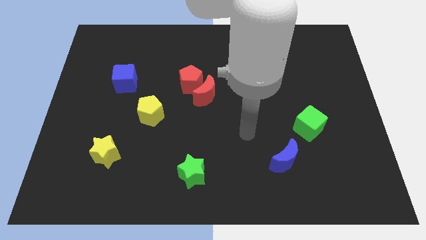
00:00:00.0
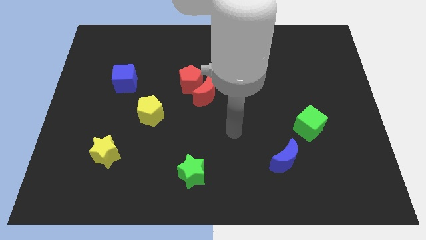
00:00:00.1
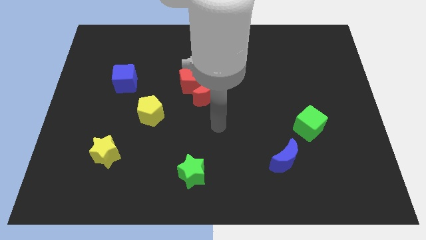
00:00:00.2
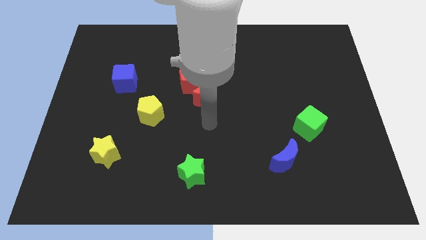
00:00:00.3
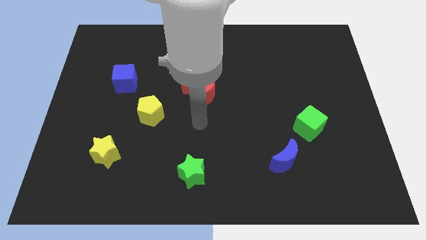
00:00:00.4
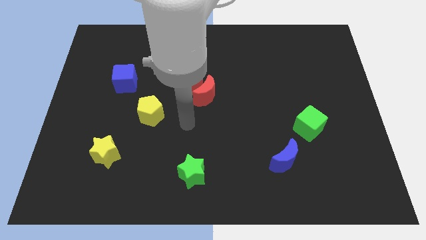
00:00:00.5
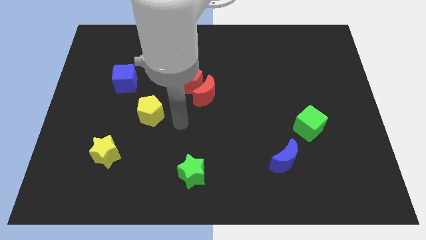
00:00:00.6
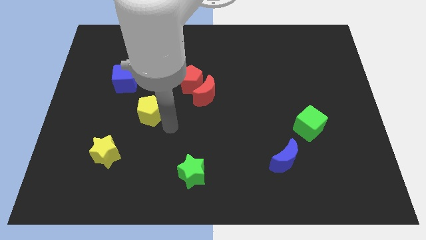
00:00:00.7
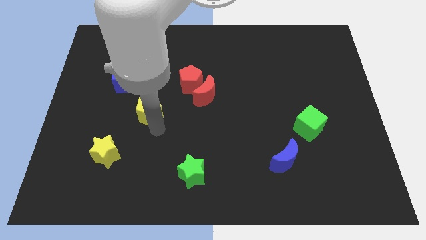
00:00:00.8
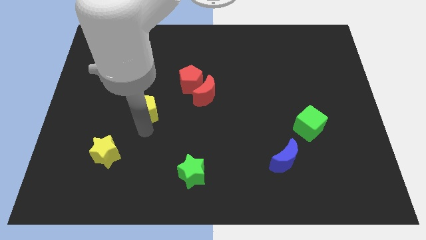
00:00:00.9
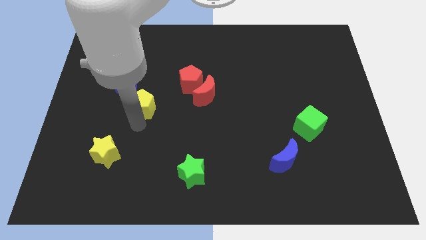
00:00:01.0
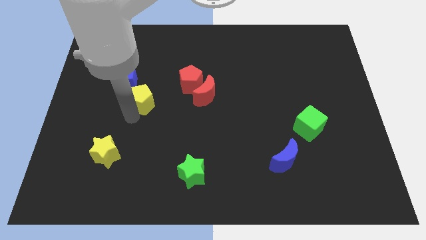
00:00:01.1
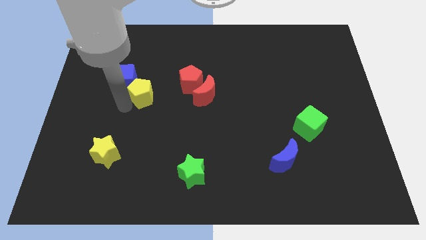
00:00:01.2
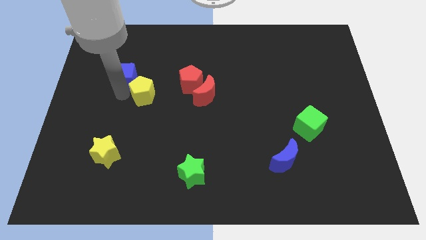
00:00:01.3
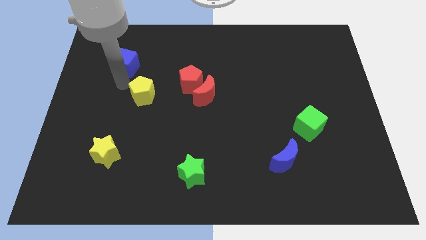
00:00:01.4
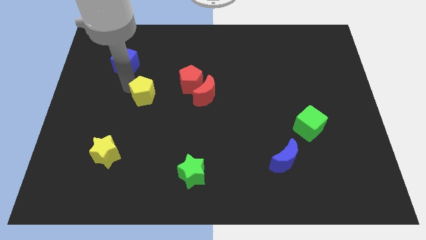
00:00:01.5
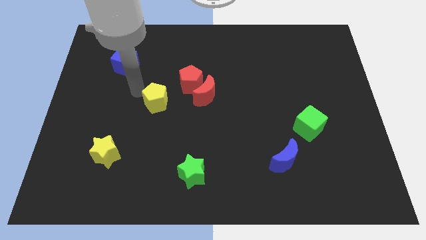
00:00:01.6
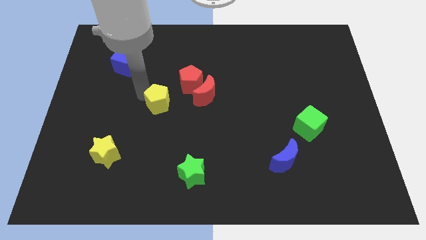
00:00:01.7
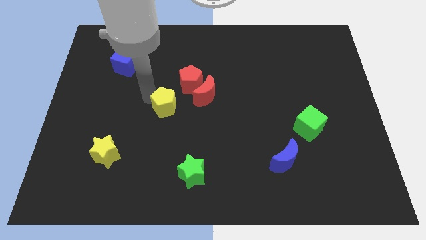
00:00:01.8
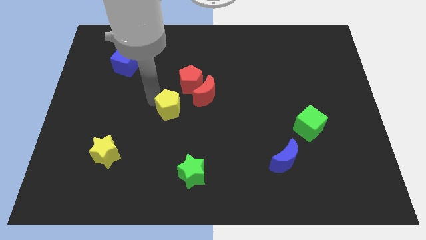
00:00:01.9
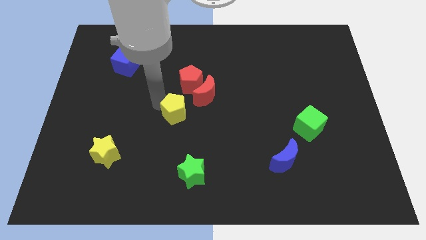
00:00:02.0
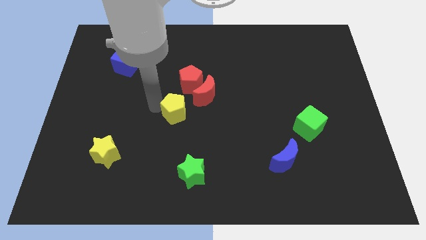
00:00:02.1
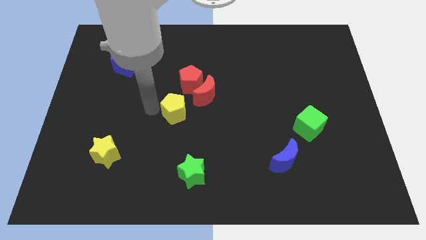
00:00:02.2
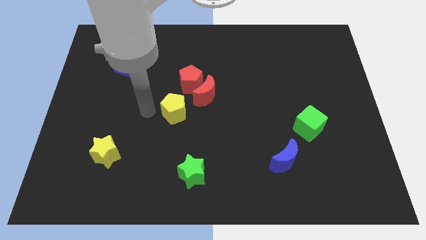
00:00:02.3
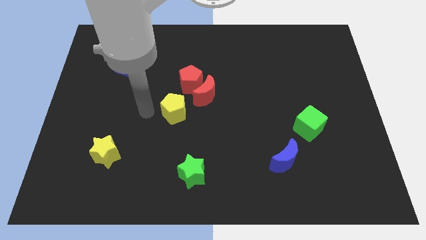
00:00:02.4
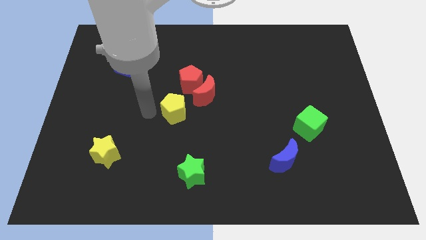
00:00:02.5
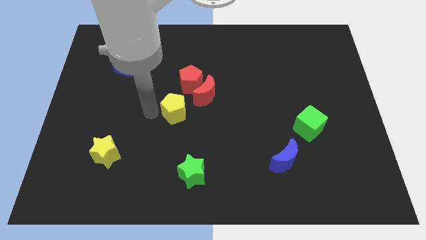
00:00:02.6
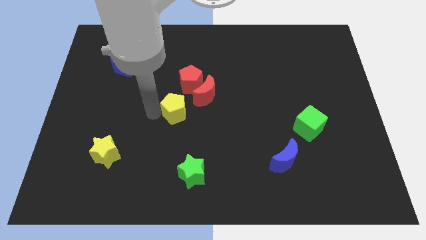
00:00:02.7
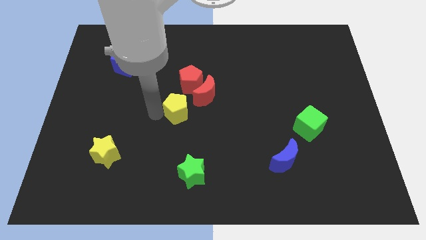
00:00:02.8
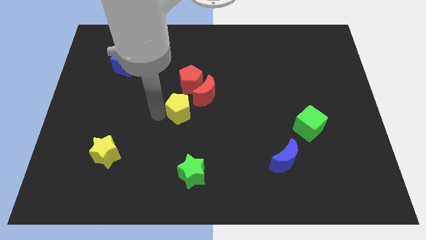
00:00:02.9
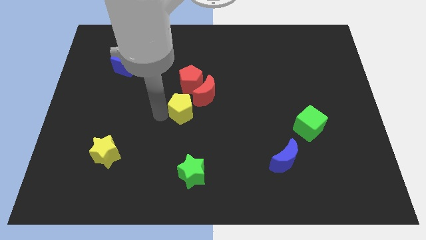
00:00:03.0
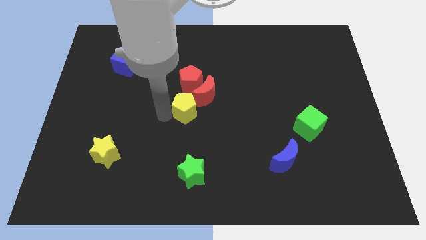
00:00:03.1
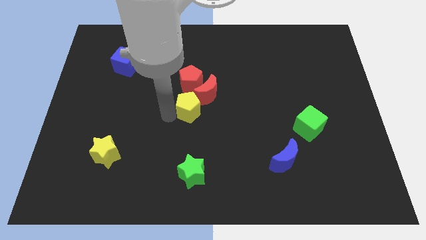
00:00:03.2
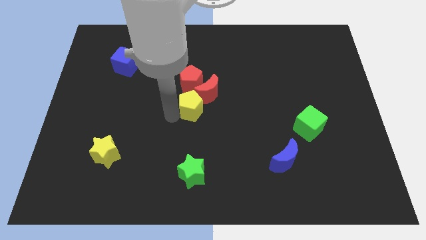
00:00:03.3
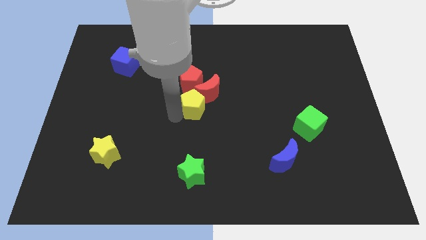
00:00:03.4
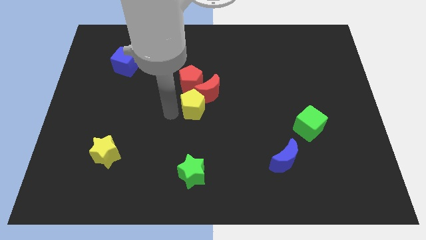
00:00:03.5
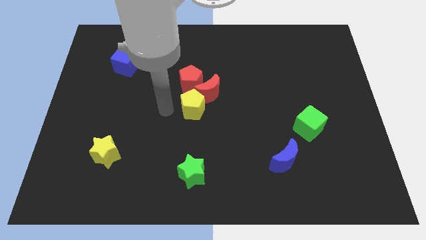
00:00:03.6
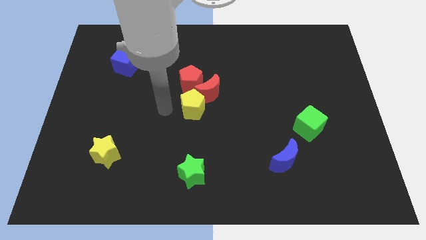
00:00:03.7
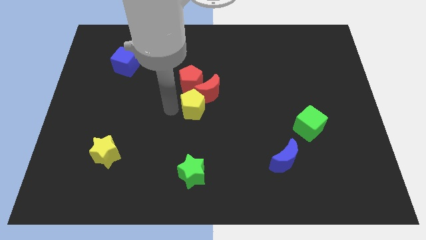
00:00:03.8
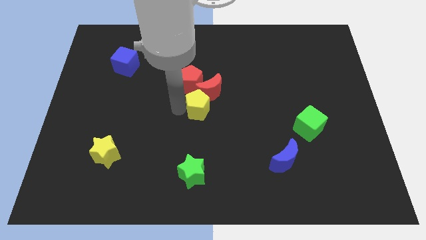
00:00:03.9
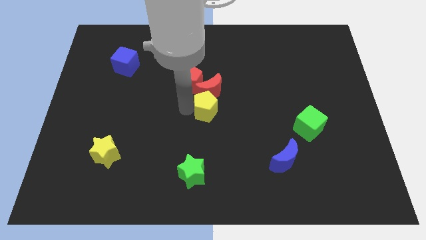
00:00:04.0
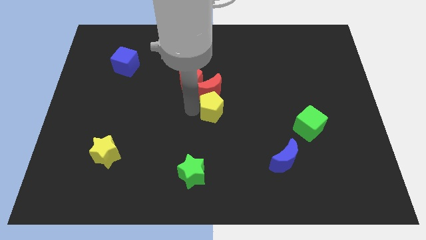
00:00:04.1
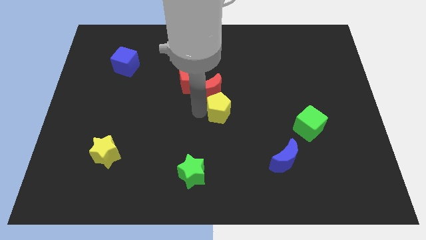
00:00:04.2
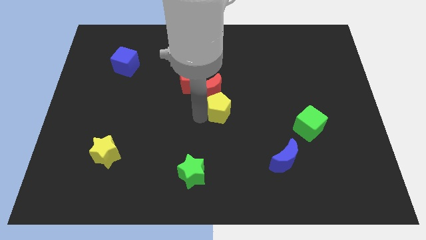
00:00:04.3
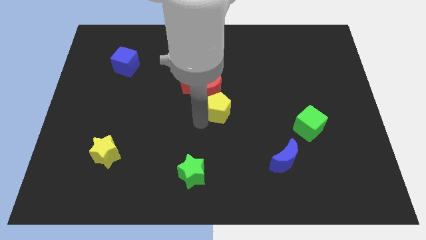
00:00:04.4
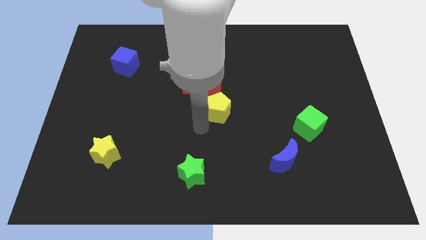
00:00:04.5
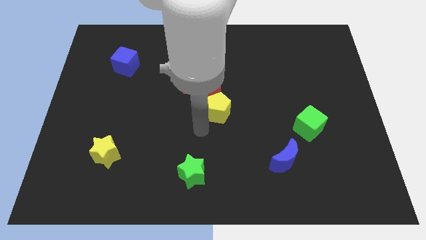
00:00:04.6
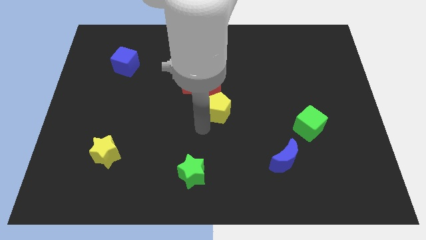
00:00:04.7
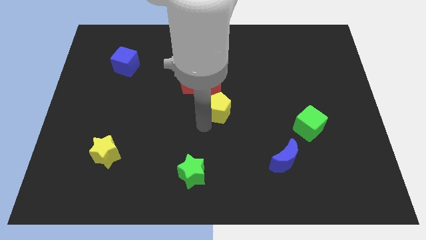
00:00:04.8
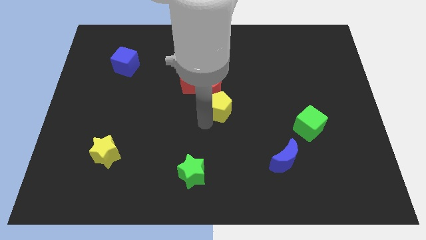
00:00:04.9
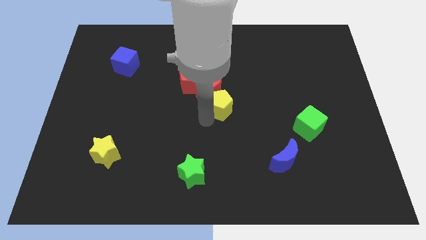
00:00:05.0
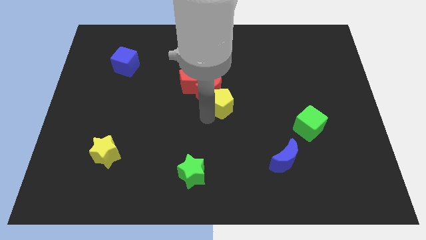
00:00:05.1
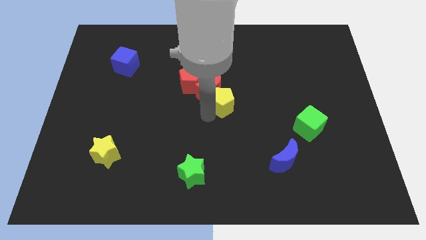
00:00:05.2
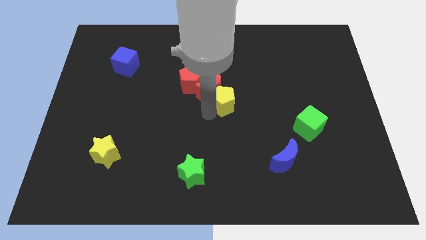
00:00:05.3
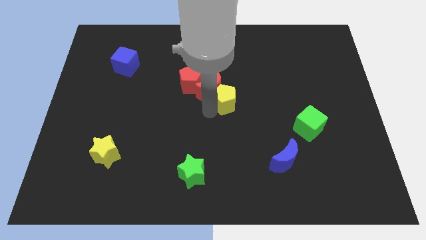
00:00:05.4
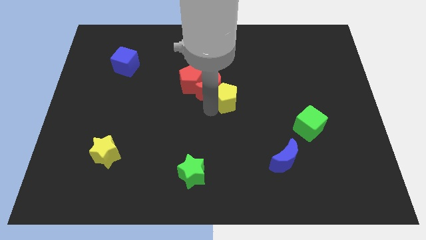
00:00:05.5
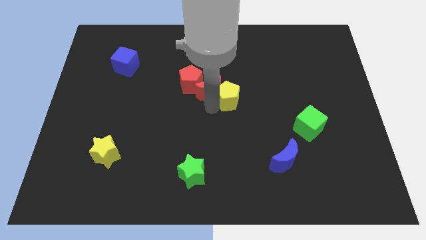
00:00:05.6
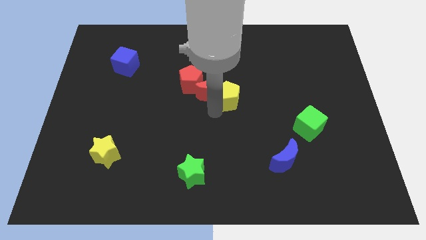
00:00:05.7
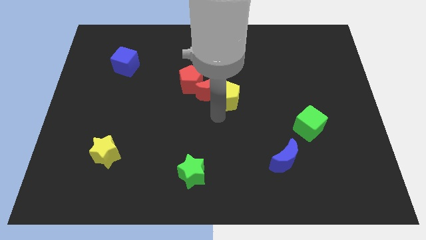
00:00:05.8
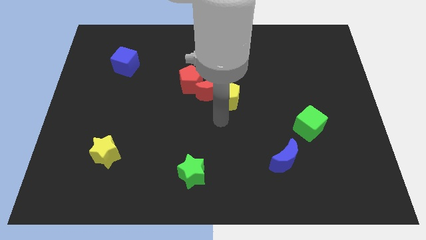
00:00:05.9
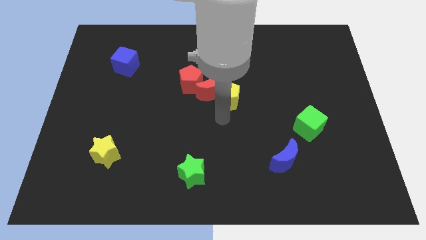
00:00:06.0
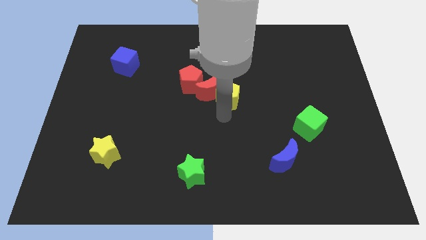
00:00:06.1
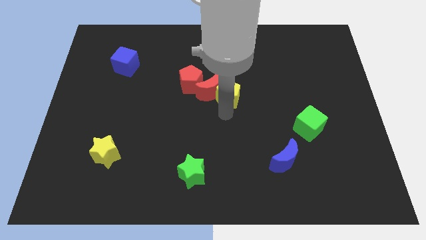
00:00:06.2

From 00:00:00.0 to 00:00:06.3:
move the yellow pentagon right of the red pentagon
